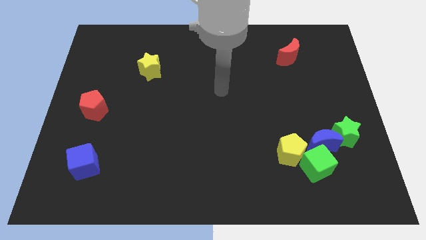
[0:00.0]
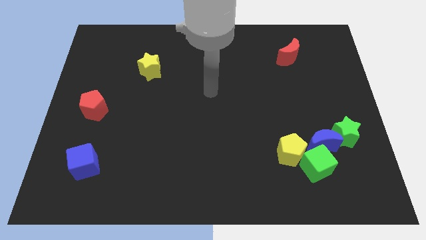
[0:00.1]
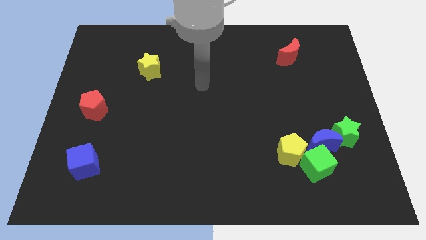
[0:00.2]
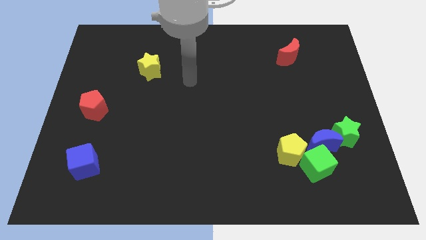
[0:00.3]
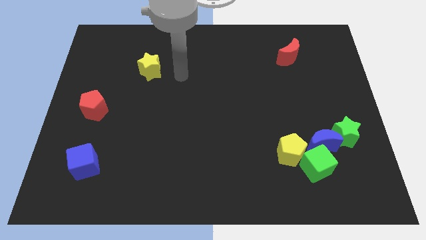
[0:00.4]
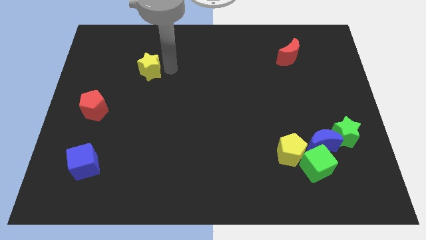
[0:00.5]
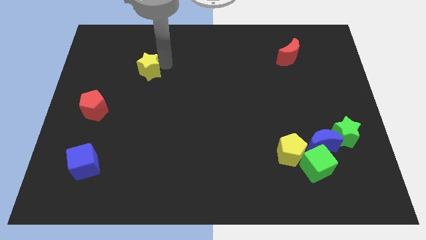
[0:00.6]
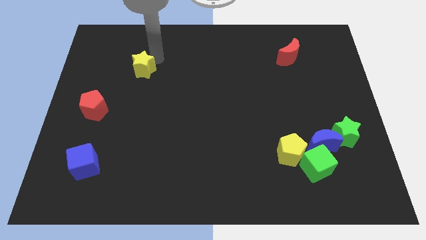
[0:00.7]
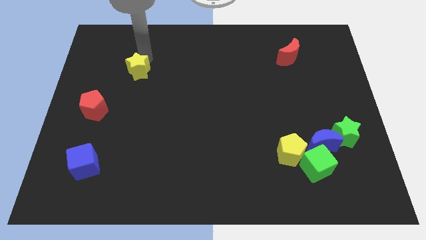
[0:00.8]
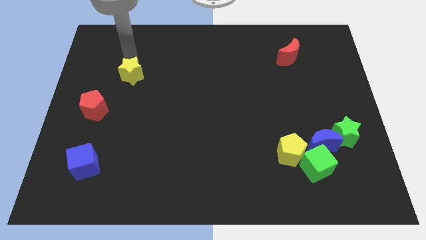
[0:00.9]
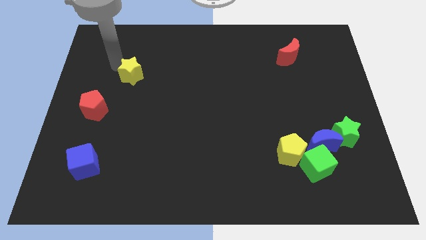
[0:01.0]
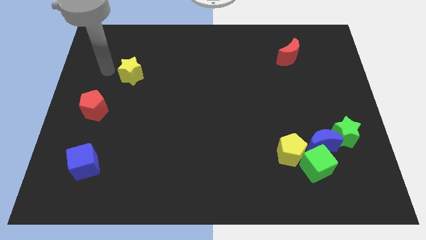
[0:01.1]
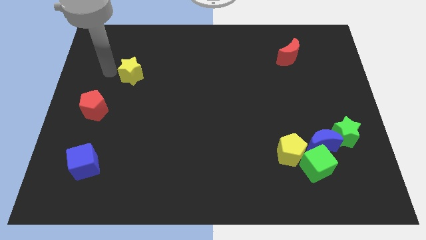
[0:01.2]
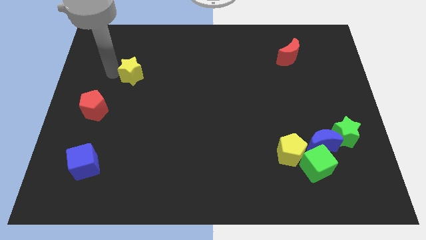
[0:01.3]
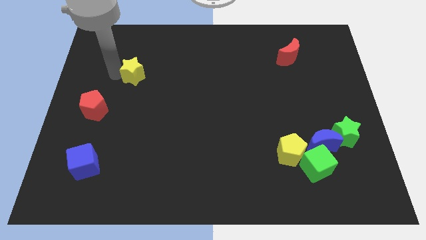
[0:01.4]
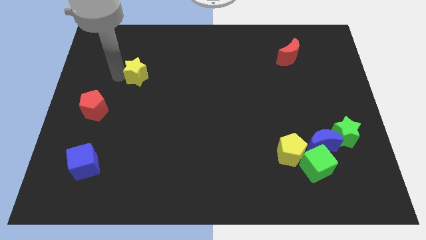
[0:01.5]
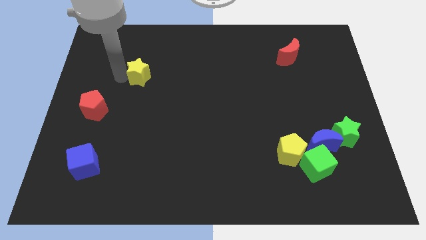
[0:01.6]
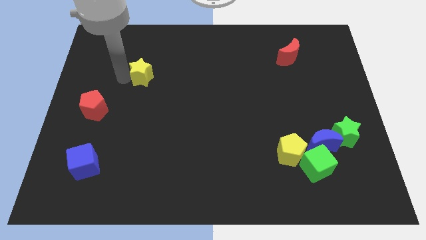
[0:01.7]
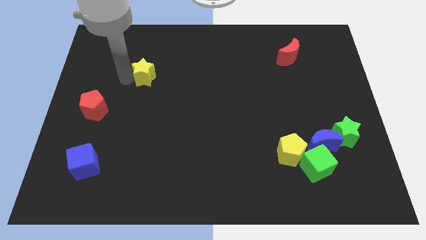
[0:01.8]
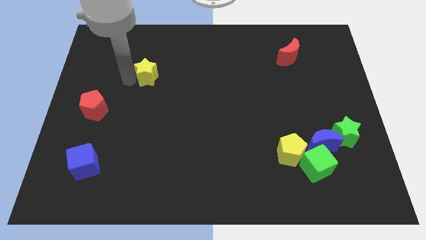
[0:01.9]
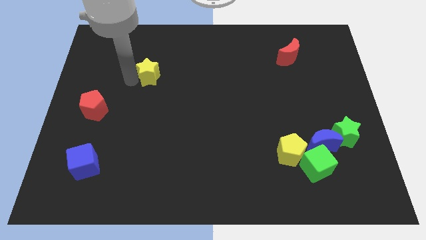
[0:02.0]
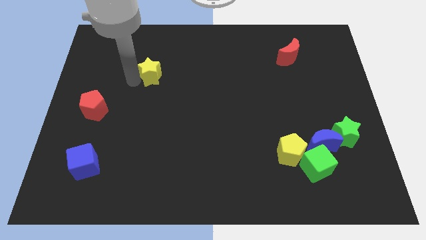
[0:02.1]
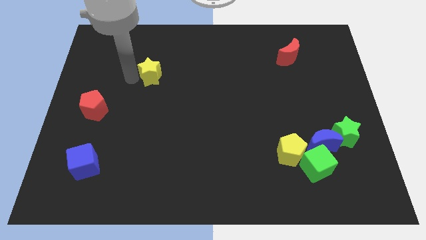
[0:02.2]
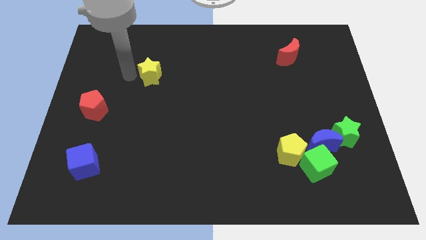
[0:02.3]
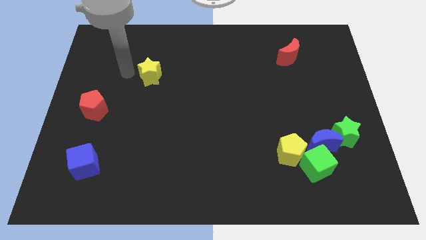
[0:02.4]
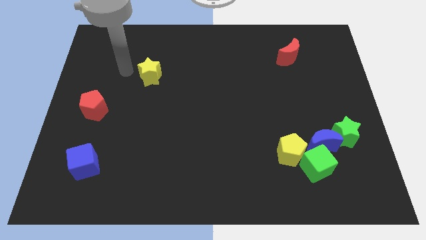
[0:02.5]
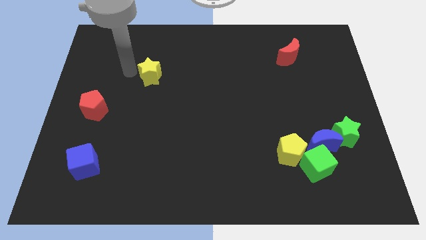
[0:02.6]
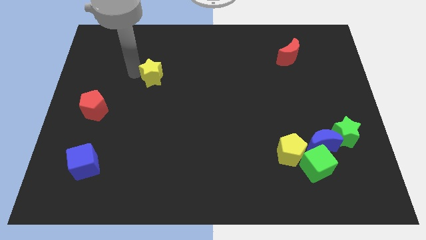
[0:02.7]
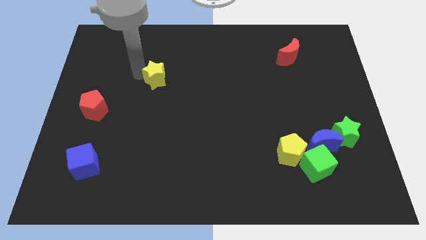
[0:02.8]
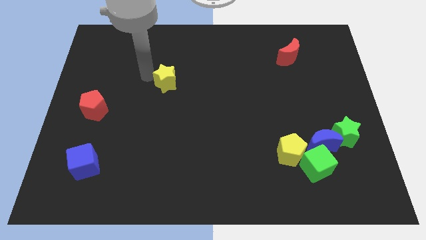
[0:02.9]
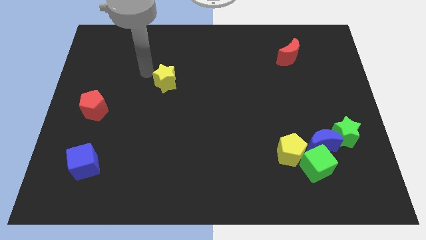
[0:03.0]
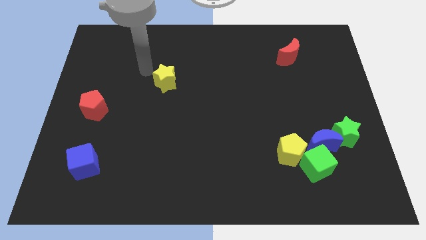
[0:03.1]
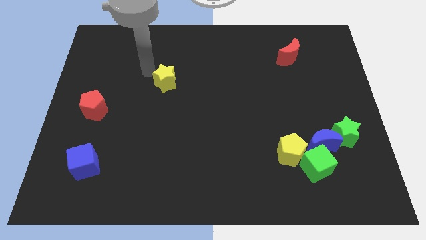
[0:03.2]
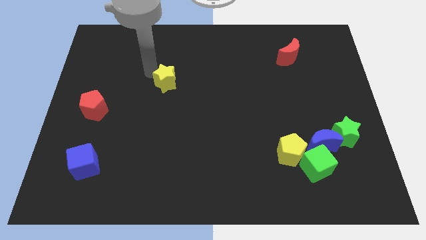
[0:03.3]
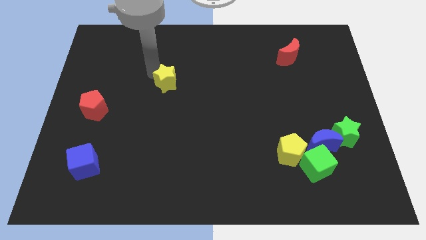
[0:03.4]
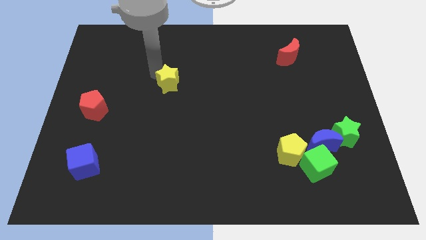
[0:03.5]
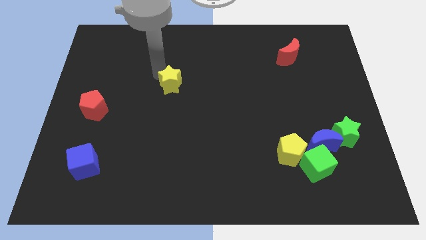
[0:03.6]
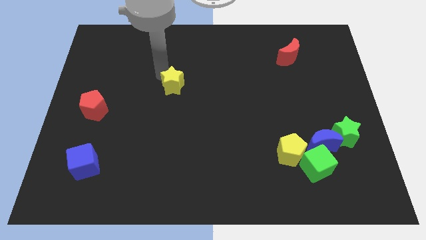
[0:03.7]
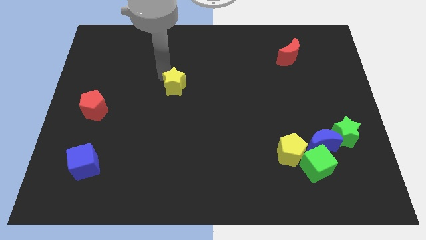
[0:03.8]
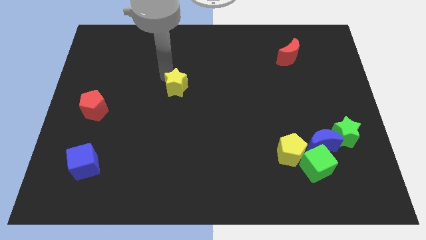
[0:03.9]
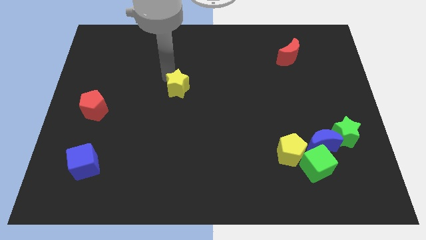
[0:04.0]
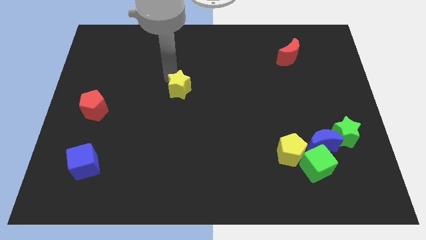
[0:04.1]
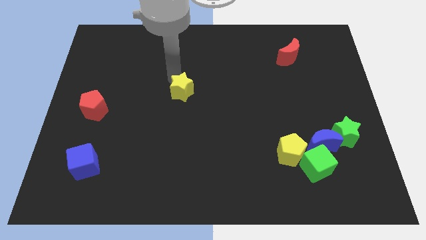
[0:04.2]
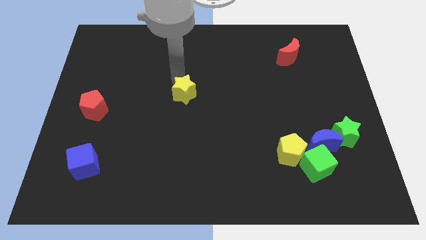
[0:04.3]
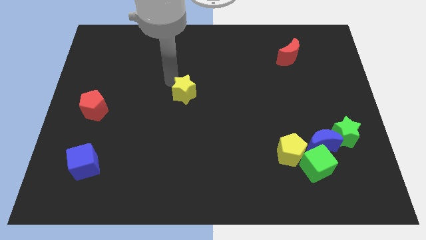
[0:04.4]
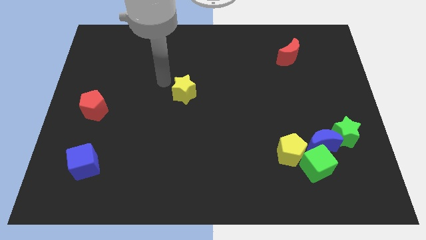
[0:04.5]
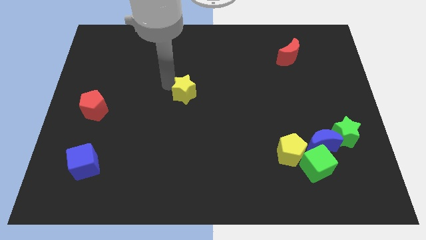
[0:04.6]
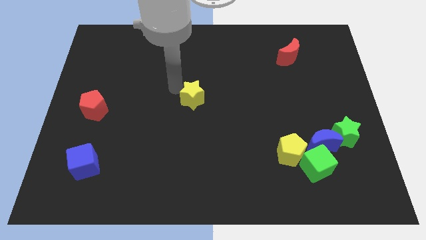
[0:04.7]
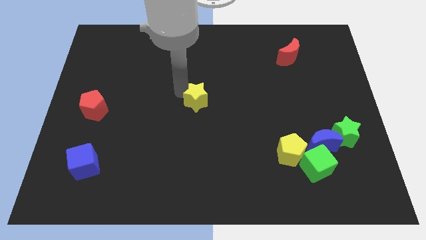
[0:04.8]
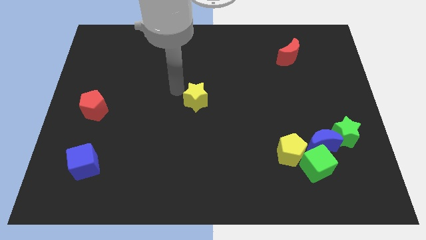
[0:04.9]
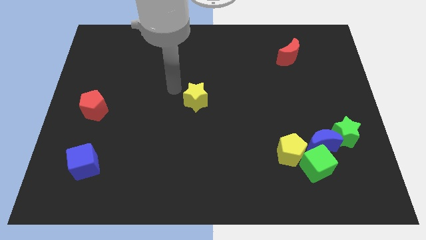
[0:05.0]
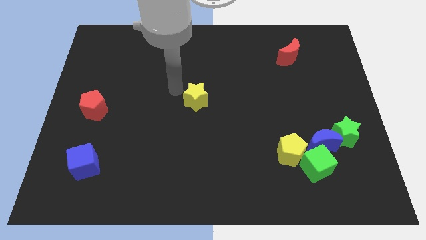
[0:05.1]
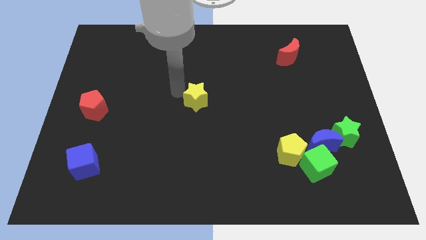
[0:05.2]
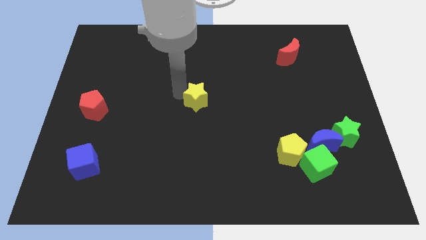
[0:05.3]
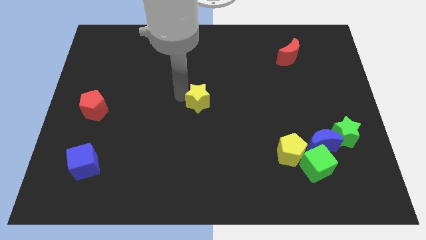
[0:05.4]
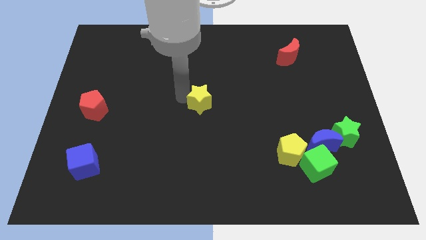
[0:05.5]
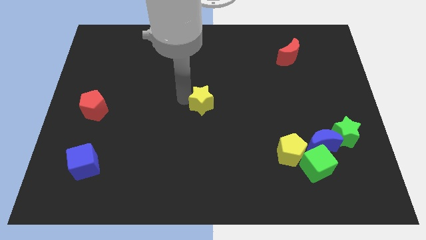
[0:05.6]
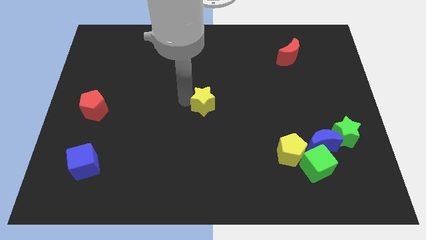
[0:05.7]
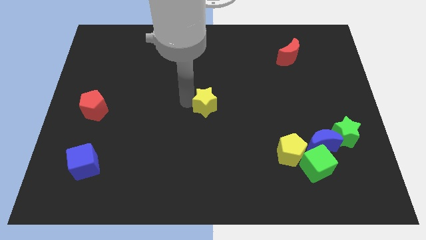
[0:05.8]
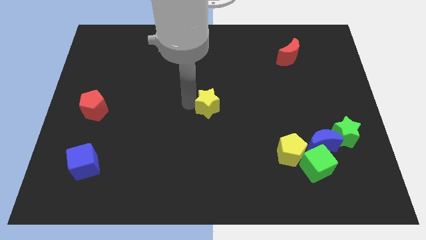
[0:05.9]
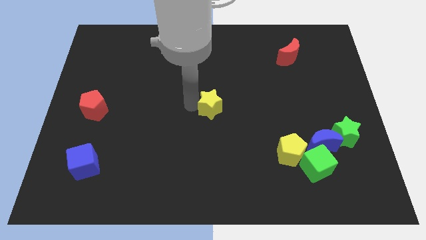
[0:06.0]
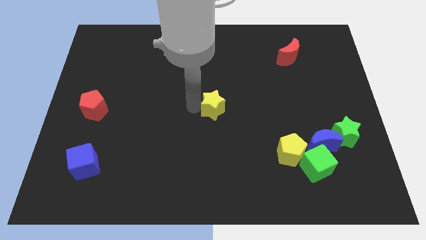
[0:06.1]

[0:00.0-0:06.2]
move the yellow star downwards and then right

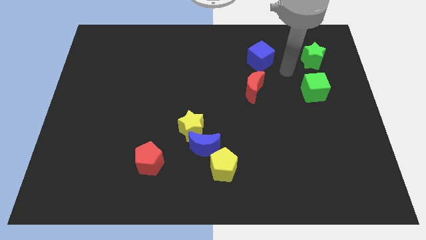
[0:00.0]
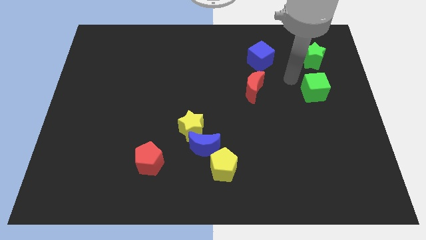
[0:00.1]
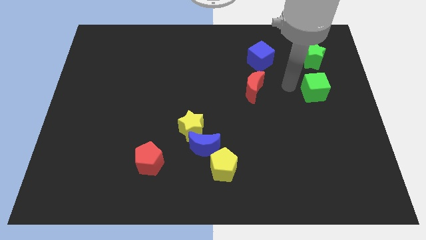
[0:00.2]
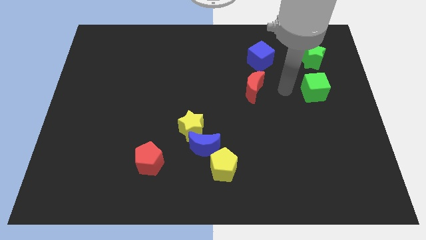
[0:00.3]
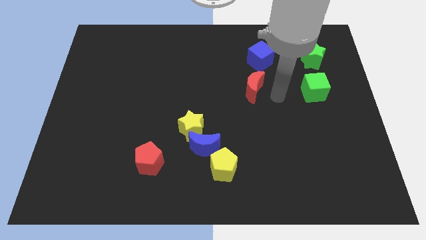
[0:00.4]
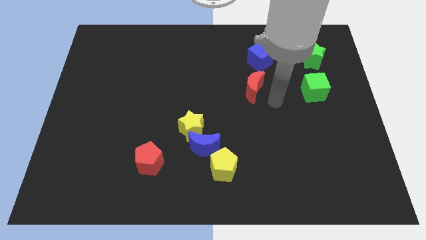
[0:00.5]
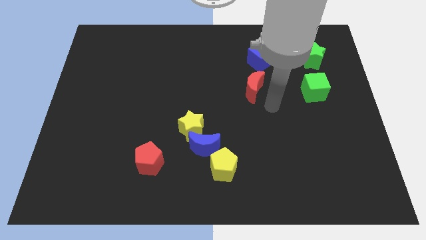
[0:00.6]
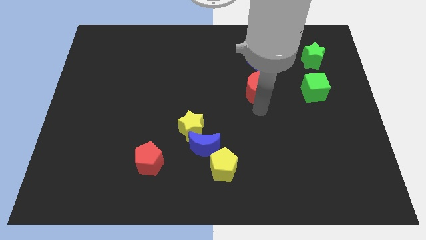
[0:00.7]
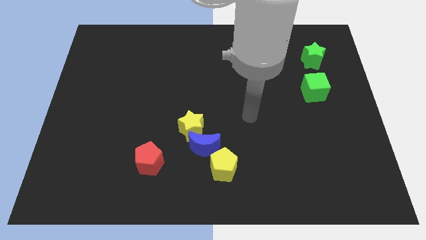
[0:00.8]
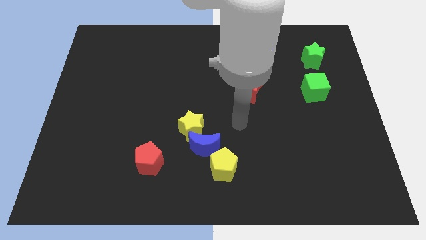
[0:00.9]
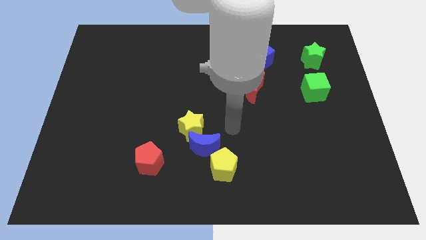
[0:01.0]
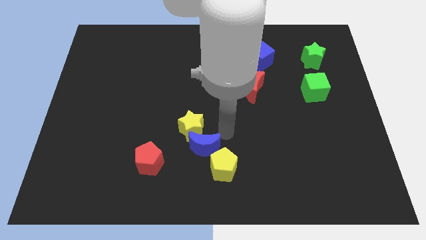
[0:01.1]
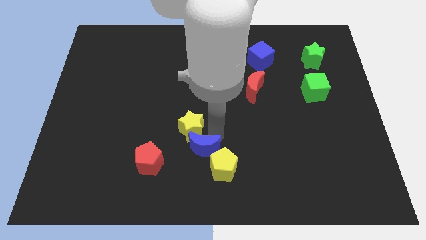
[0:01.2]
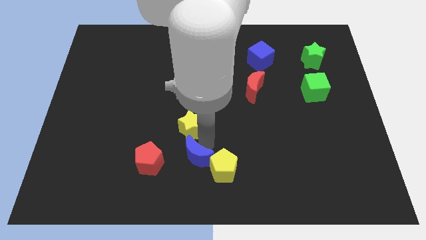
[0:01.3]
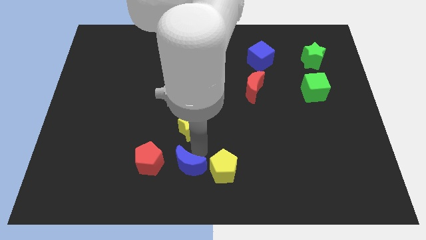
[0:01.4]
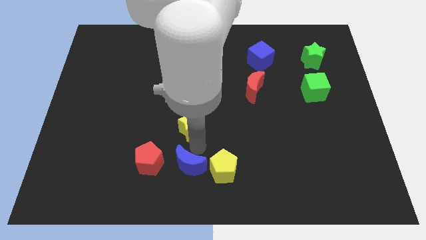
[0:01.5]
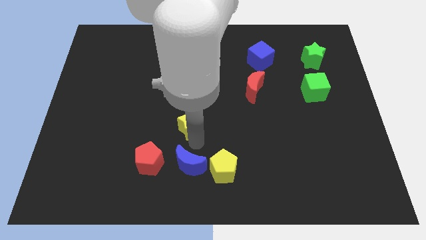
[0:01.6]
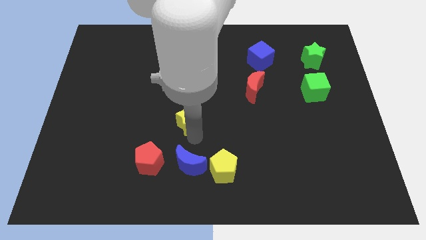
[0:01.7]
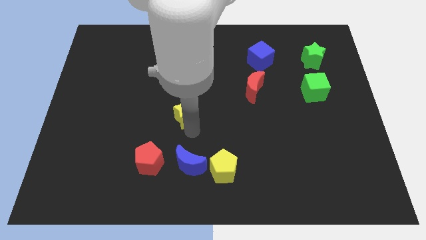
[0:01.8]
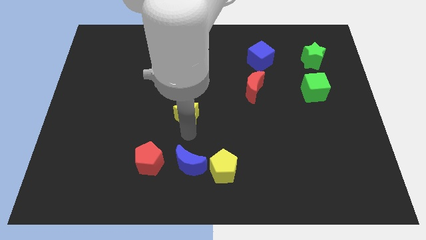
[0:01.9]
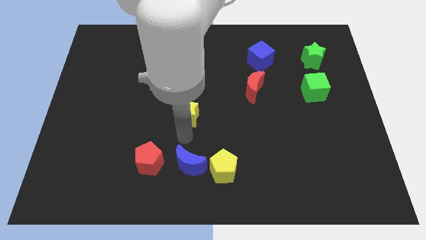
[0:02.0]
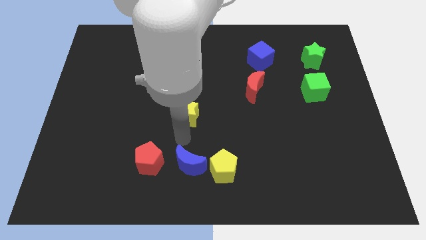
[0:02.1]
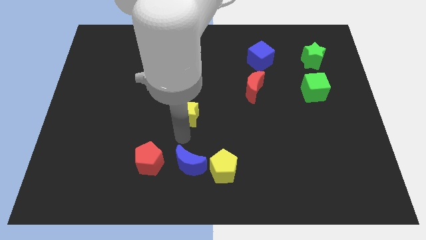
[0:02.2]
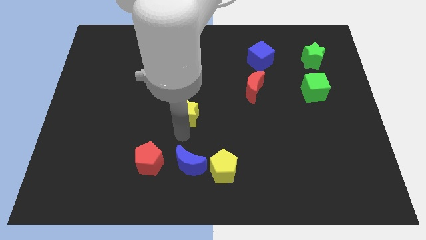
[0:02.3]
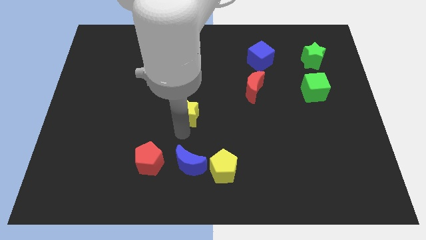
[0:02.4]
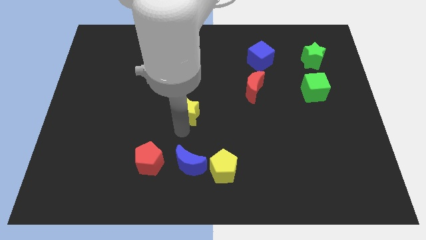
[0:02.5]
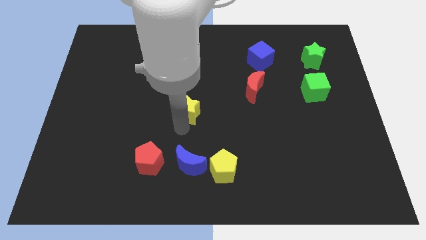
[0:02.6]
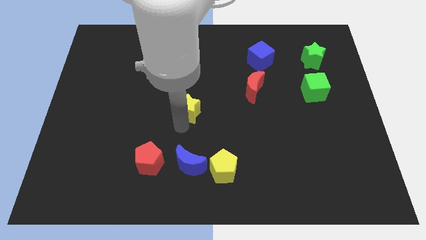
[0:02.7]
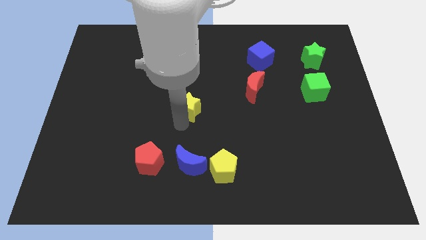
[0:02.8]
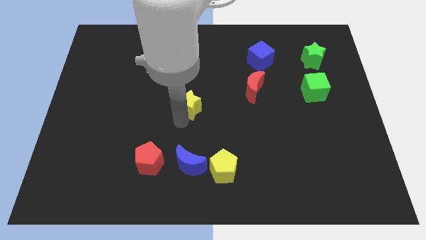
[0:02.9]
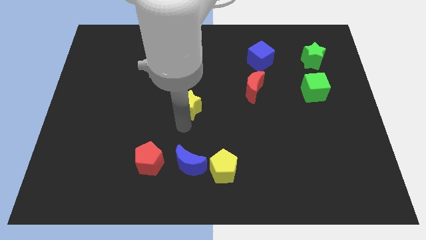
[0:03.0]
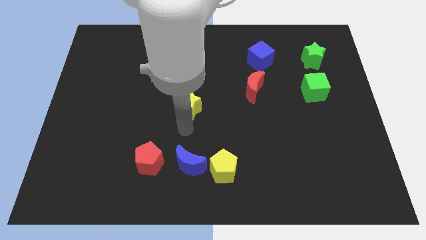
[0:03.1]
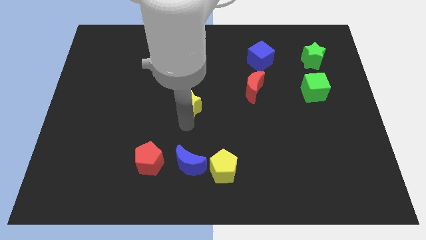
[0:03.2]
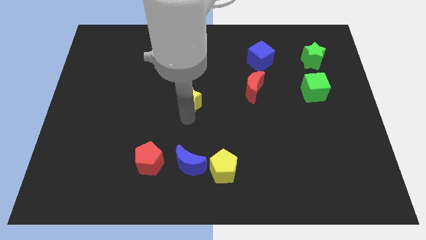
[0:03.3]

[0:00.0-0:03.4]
slide the yellow star slightly upwards
